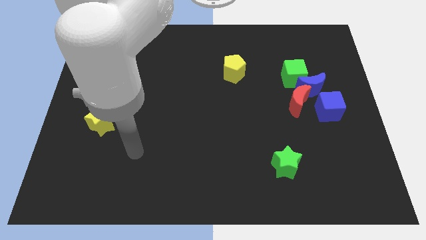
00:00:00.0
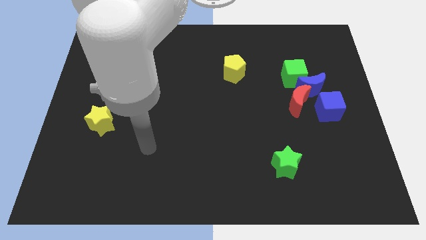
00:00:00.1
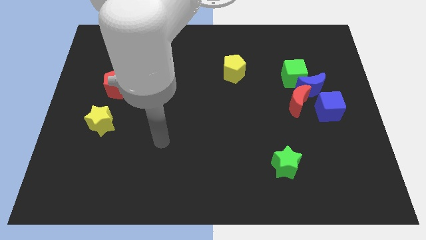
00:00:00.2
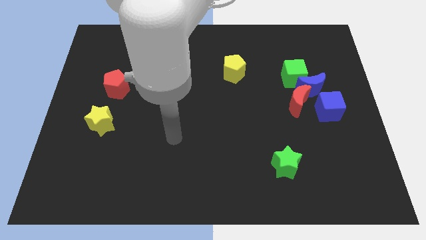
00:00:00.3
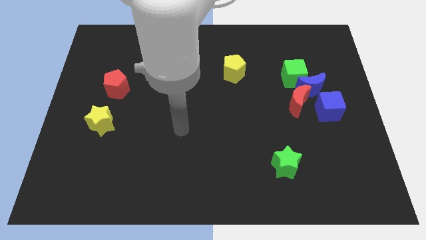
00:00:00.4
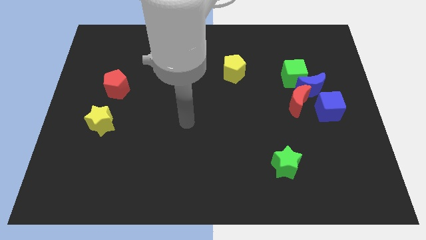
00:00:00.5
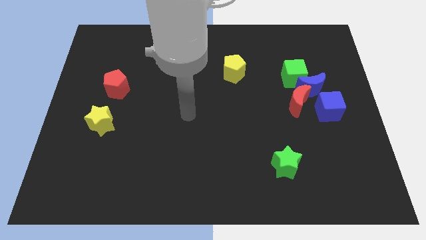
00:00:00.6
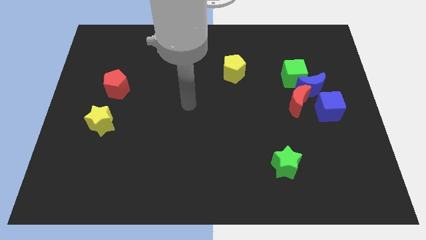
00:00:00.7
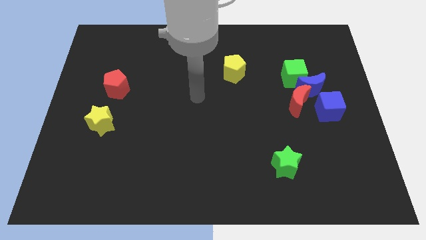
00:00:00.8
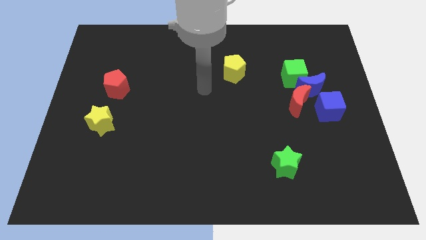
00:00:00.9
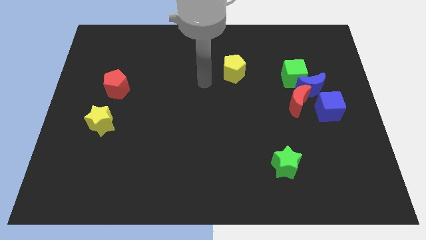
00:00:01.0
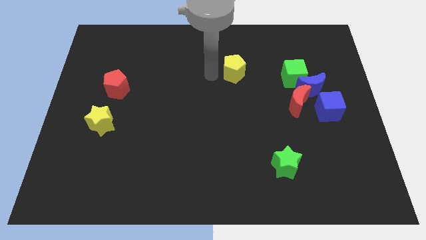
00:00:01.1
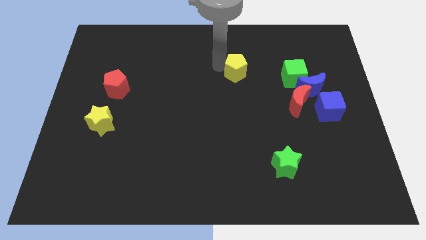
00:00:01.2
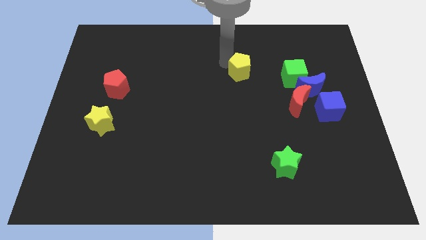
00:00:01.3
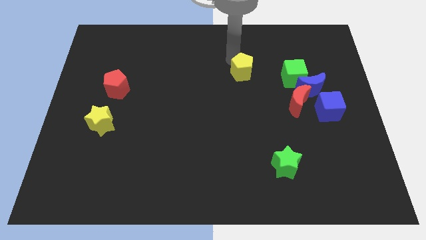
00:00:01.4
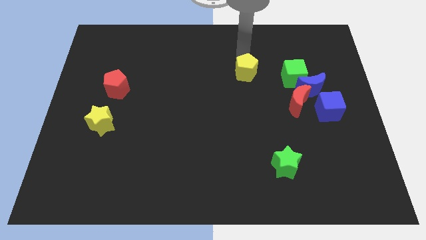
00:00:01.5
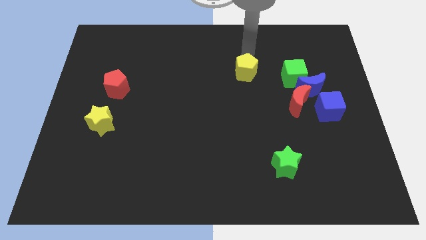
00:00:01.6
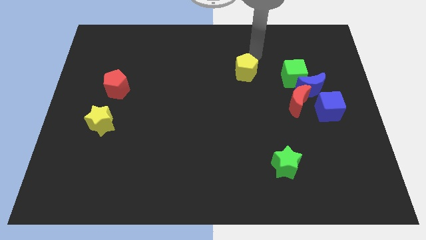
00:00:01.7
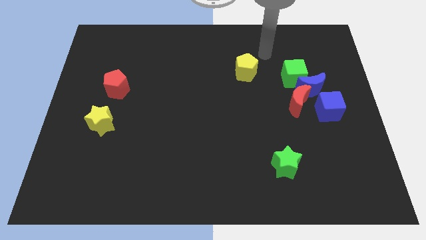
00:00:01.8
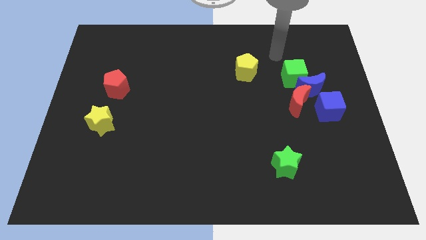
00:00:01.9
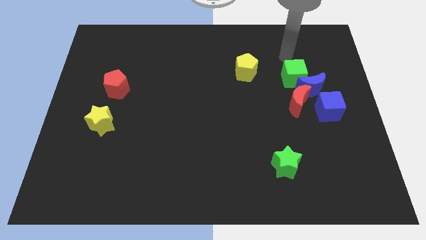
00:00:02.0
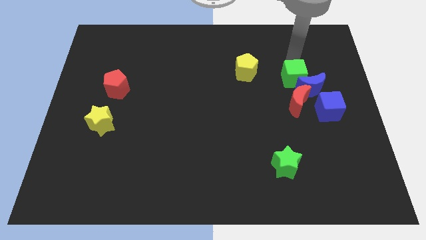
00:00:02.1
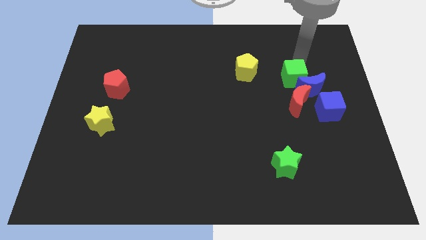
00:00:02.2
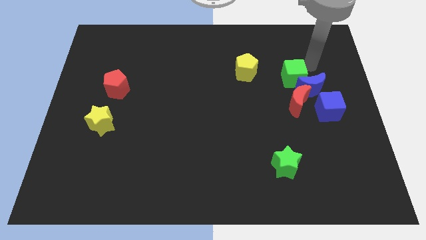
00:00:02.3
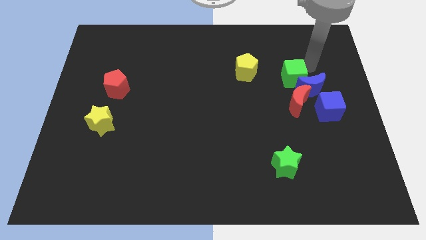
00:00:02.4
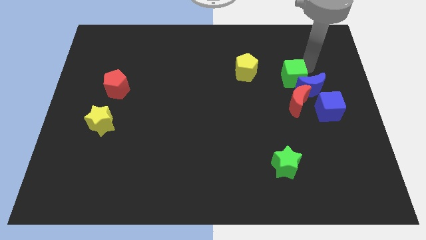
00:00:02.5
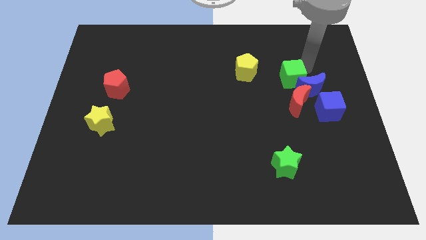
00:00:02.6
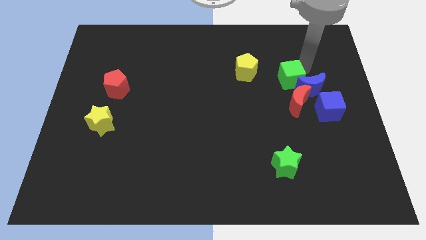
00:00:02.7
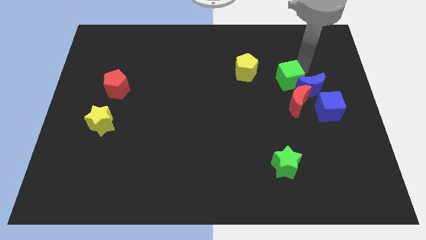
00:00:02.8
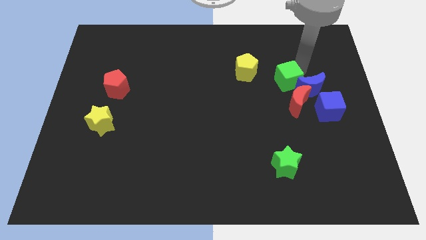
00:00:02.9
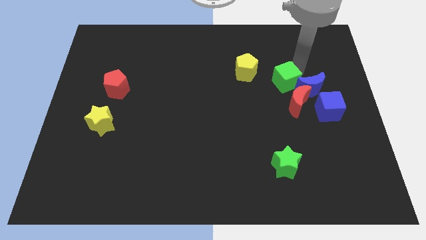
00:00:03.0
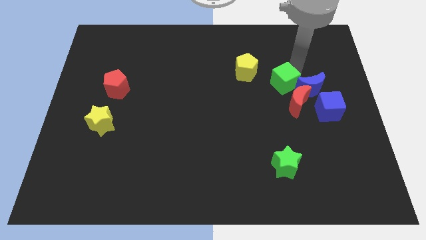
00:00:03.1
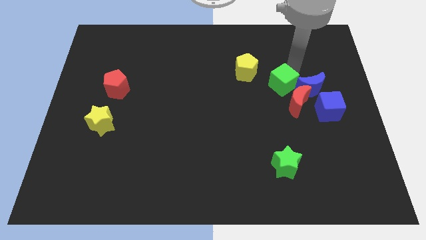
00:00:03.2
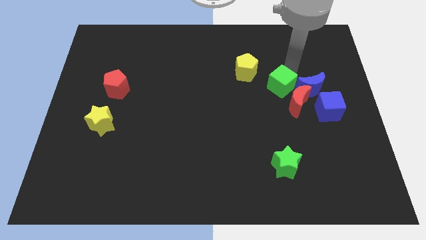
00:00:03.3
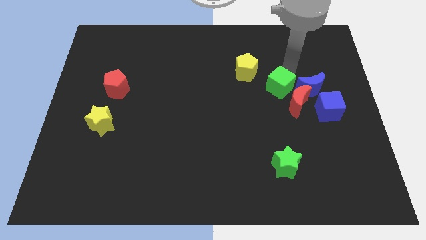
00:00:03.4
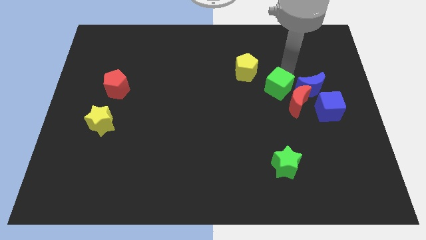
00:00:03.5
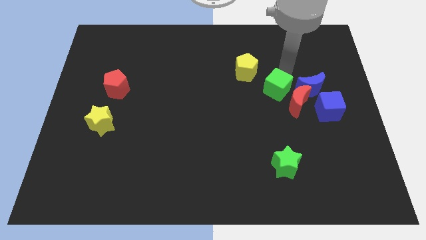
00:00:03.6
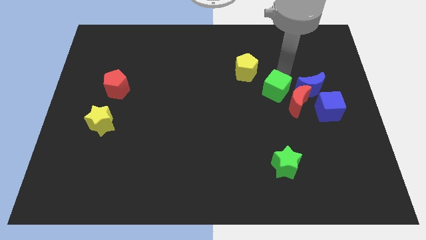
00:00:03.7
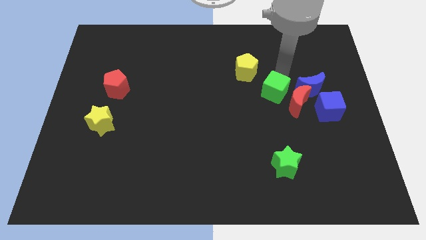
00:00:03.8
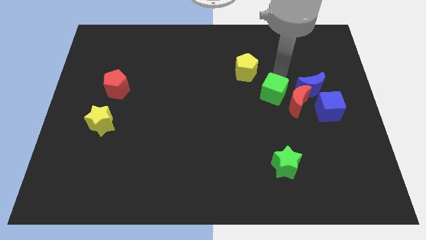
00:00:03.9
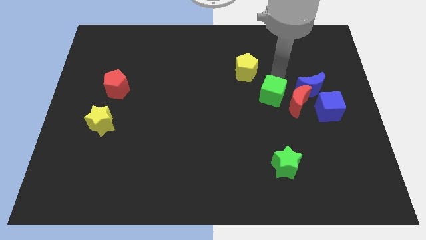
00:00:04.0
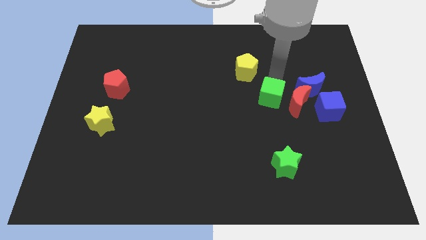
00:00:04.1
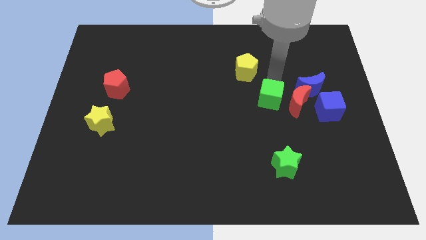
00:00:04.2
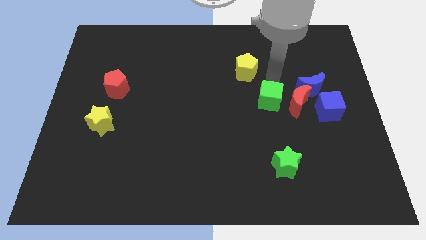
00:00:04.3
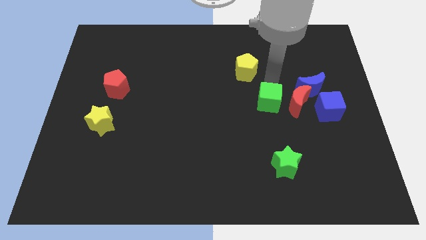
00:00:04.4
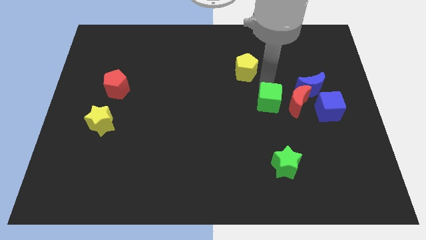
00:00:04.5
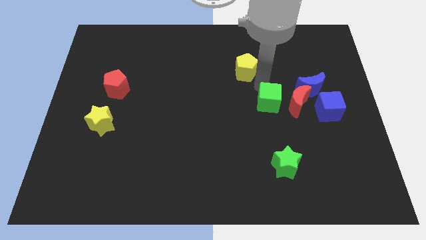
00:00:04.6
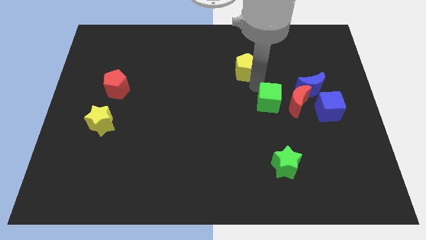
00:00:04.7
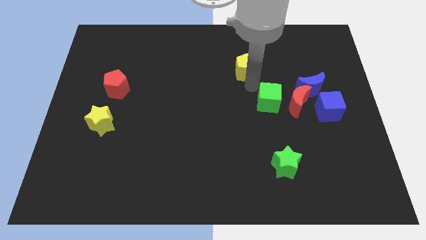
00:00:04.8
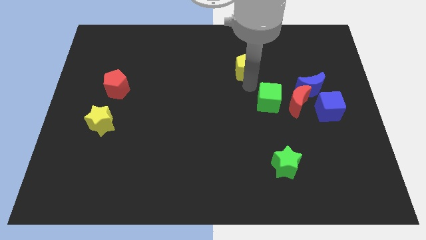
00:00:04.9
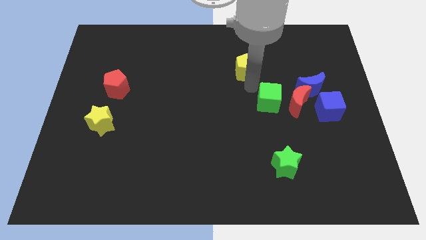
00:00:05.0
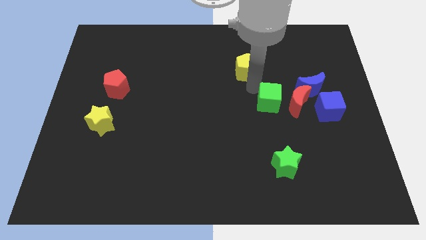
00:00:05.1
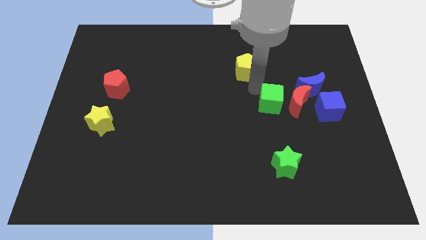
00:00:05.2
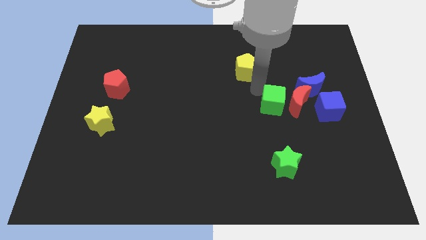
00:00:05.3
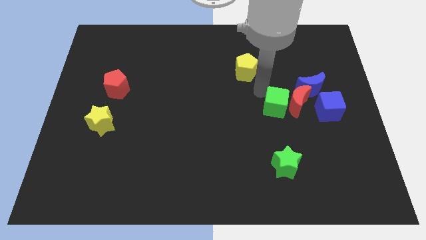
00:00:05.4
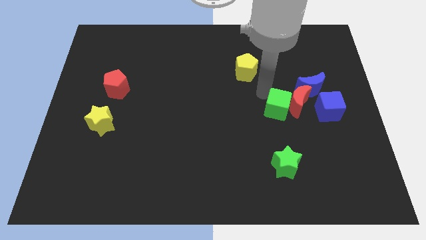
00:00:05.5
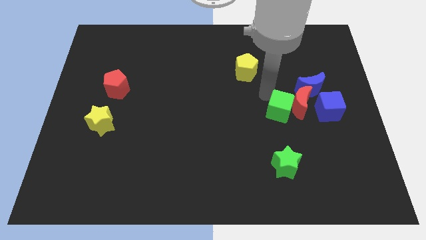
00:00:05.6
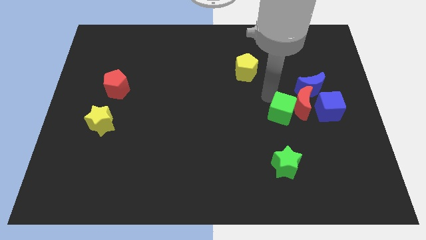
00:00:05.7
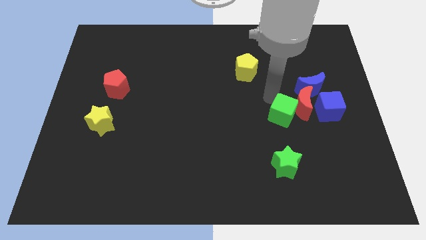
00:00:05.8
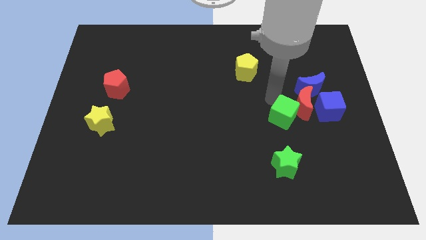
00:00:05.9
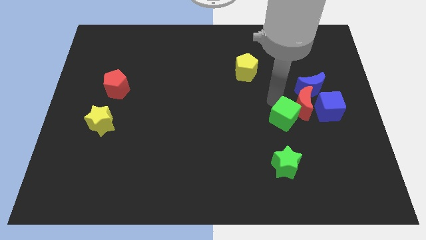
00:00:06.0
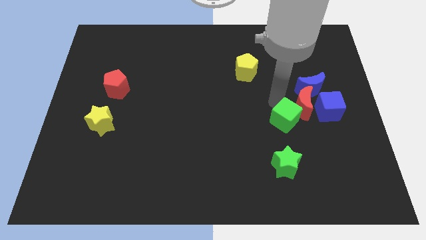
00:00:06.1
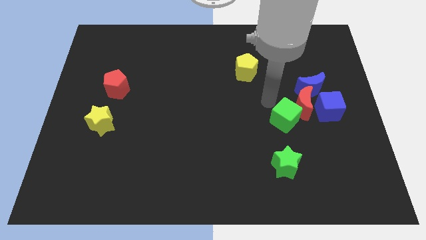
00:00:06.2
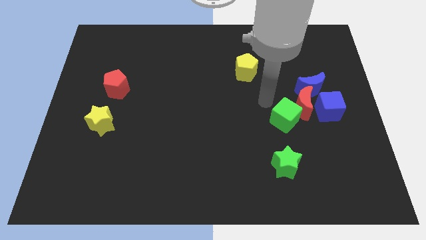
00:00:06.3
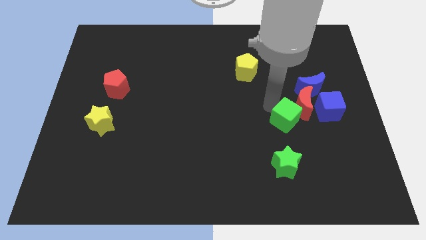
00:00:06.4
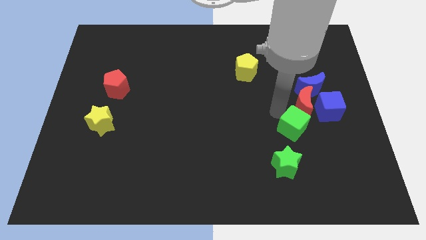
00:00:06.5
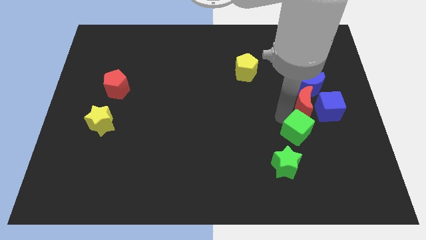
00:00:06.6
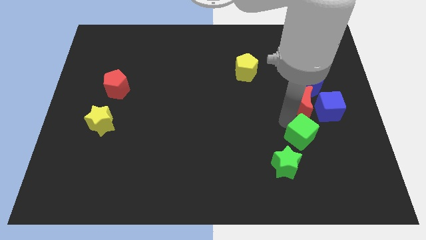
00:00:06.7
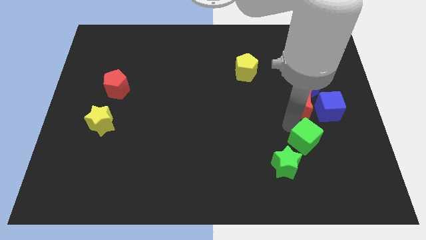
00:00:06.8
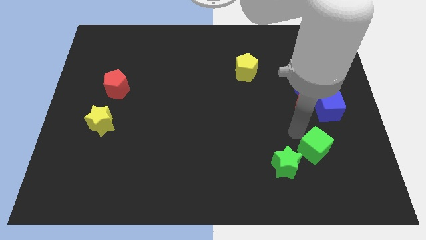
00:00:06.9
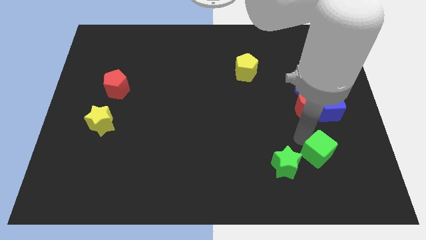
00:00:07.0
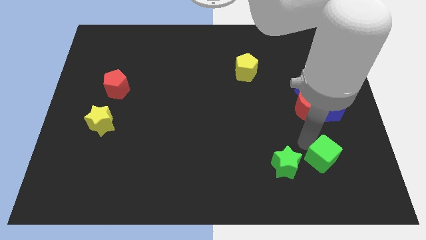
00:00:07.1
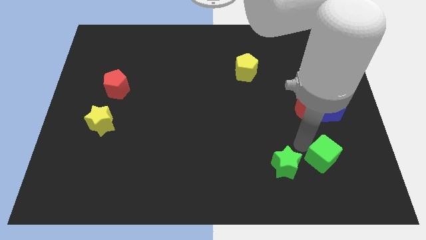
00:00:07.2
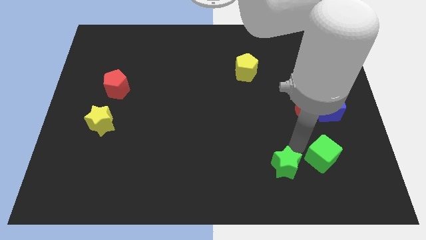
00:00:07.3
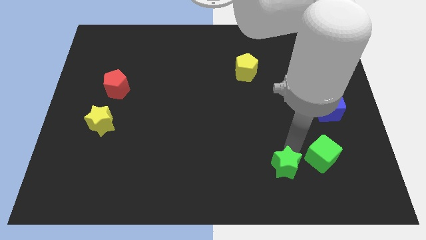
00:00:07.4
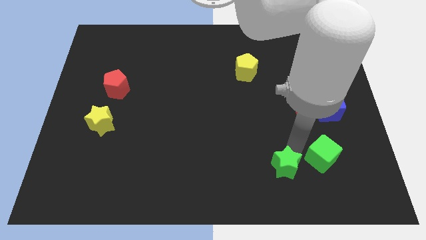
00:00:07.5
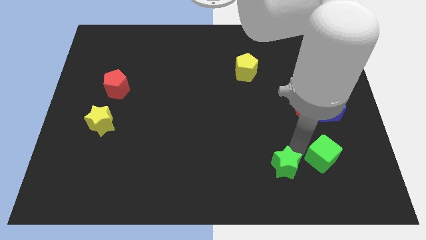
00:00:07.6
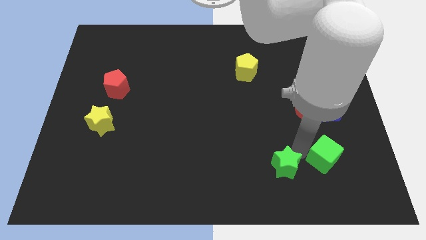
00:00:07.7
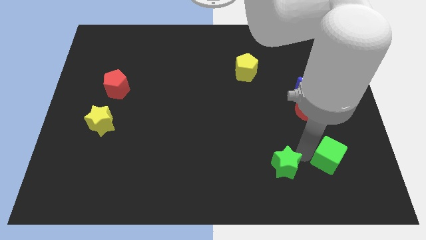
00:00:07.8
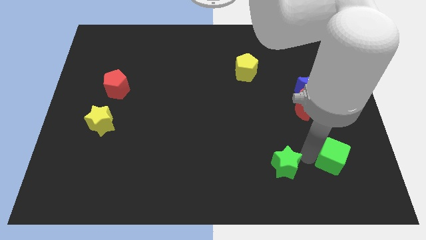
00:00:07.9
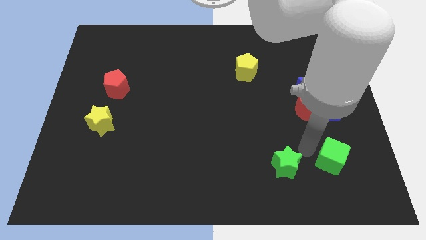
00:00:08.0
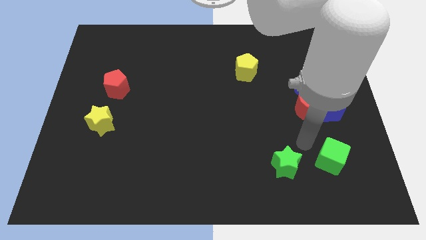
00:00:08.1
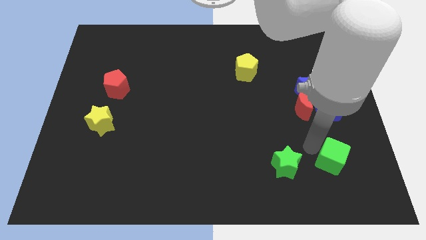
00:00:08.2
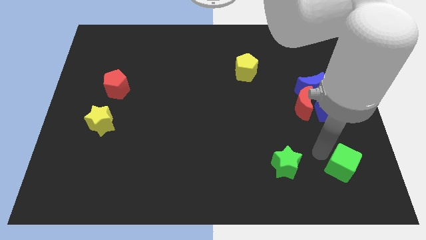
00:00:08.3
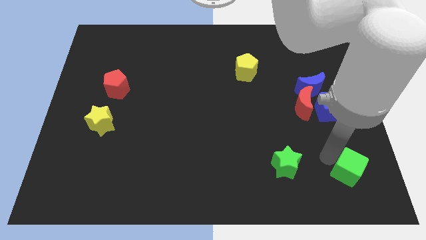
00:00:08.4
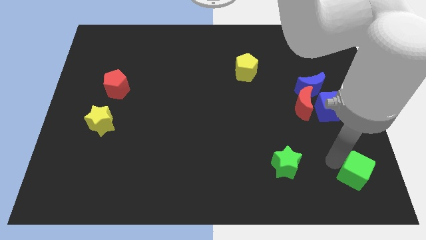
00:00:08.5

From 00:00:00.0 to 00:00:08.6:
push the green cube to the bottom right
